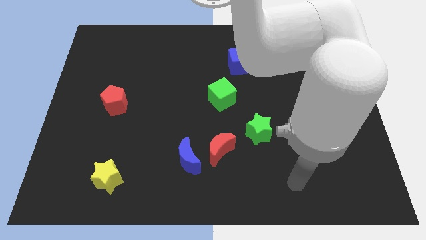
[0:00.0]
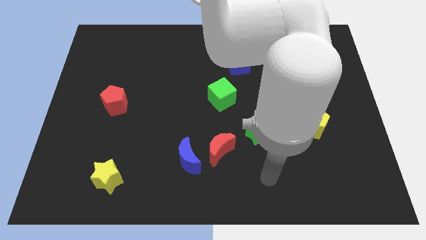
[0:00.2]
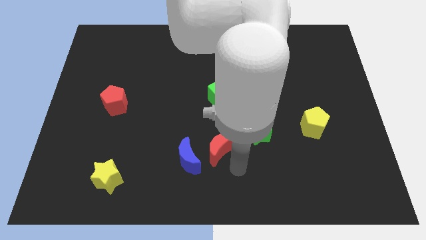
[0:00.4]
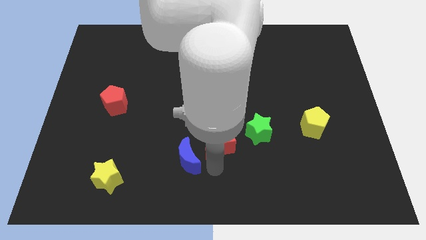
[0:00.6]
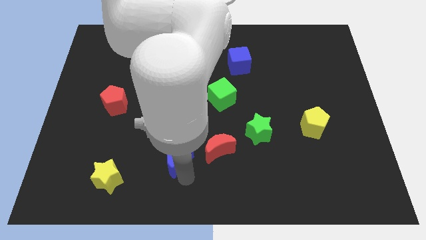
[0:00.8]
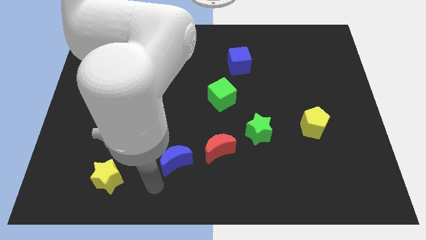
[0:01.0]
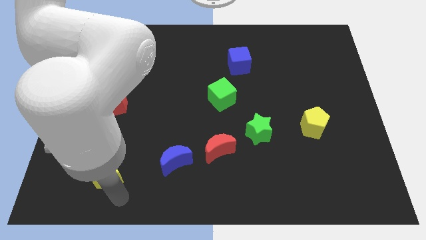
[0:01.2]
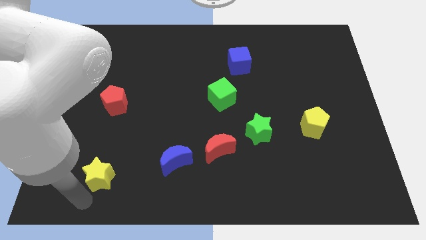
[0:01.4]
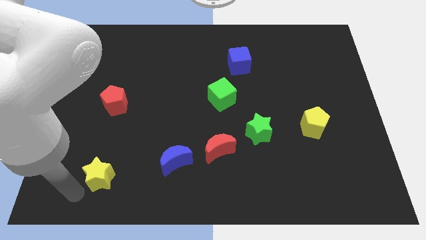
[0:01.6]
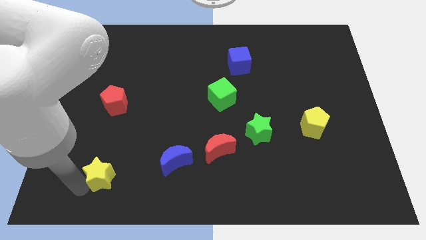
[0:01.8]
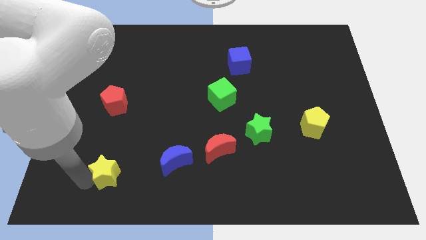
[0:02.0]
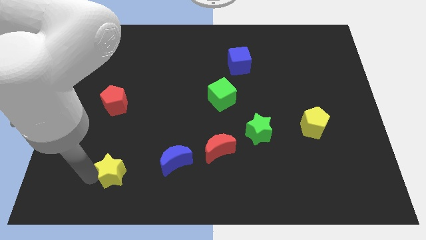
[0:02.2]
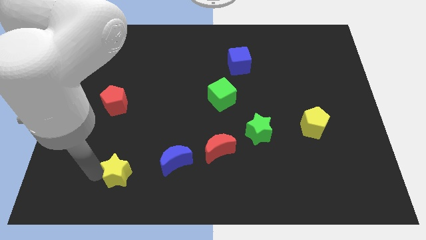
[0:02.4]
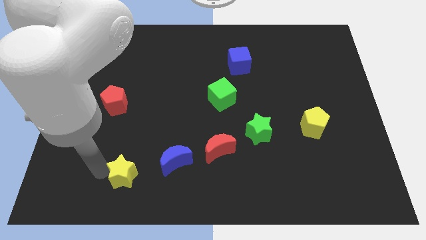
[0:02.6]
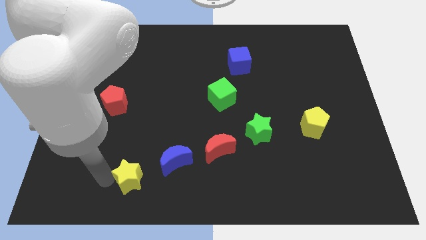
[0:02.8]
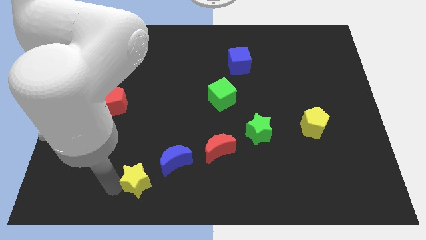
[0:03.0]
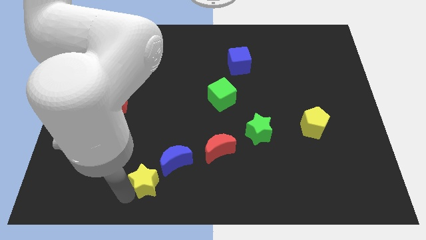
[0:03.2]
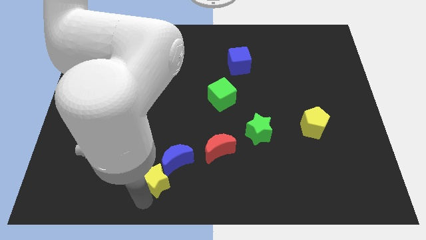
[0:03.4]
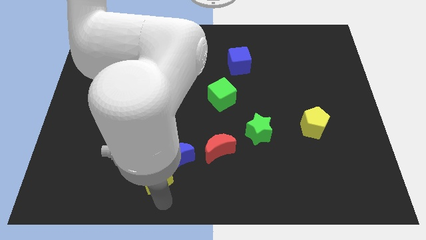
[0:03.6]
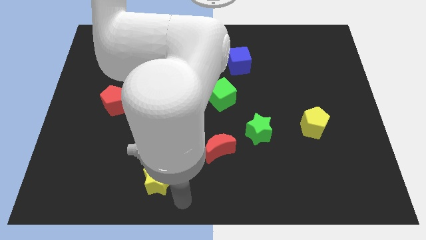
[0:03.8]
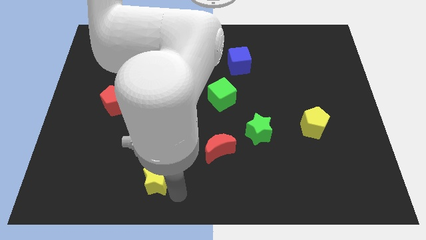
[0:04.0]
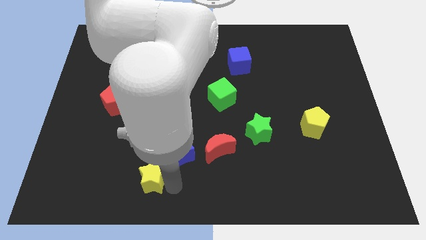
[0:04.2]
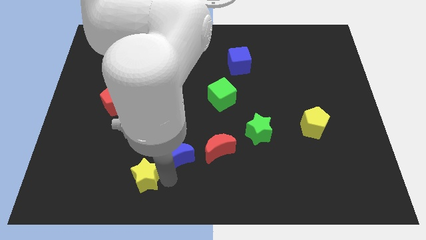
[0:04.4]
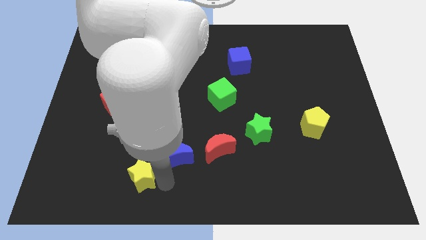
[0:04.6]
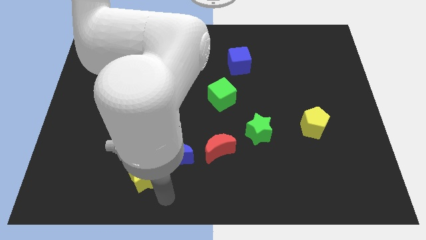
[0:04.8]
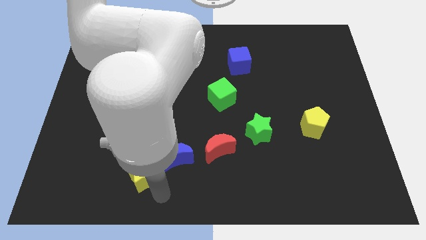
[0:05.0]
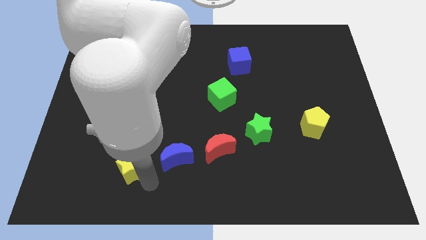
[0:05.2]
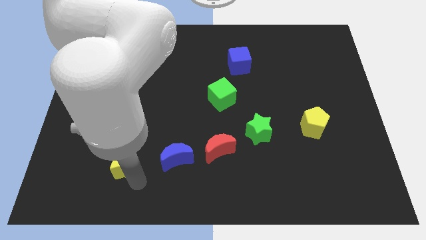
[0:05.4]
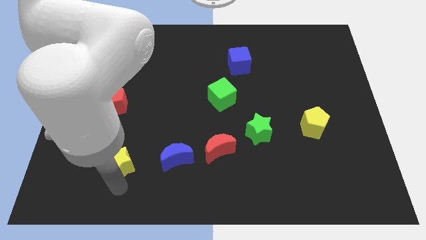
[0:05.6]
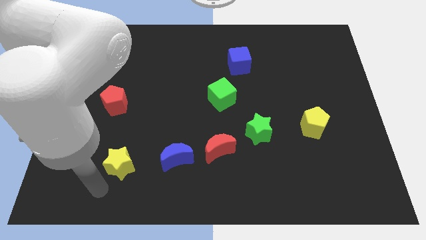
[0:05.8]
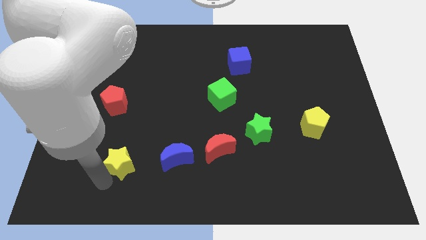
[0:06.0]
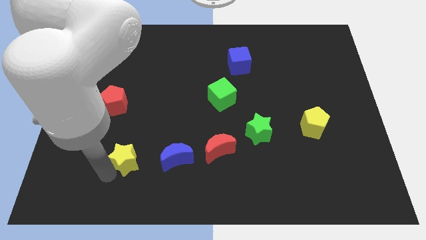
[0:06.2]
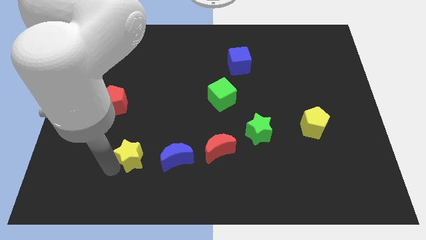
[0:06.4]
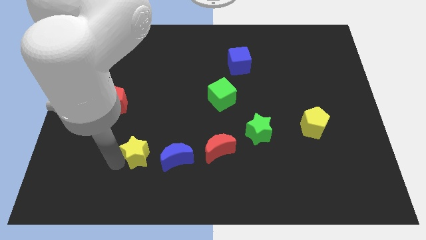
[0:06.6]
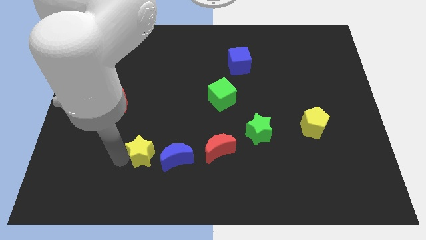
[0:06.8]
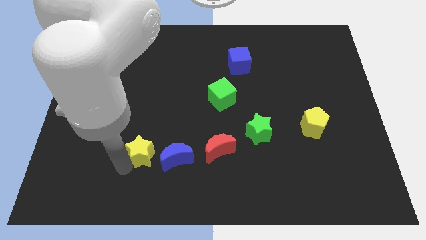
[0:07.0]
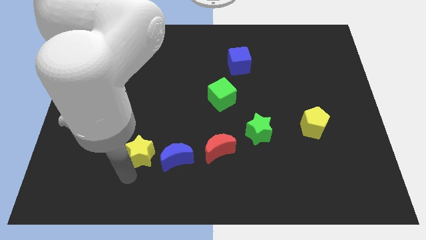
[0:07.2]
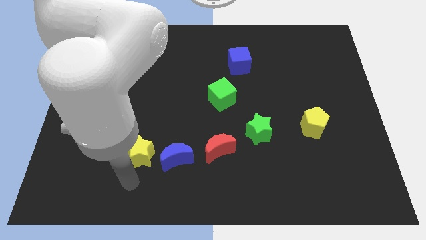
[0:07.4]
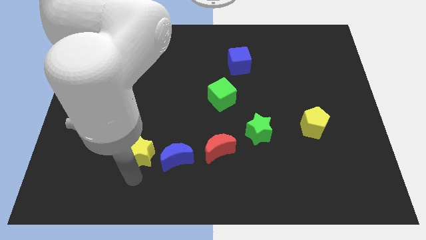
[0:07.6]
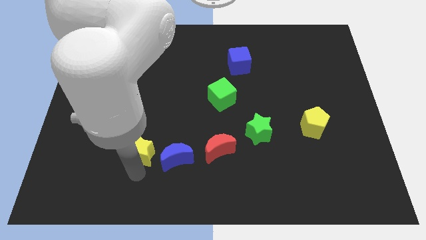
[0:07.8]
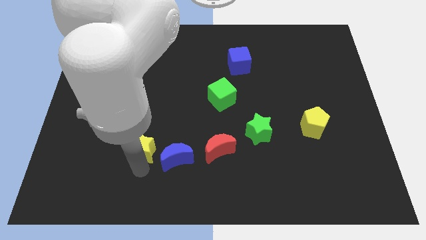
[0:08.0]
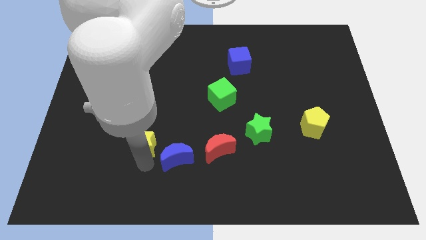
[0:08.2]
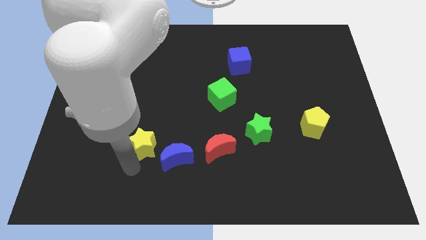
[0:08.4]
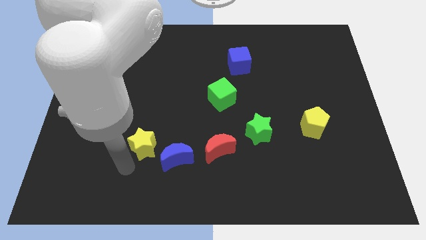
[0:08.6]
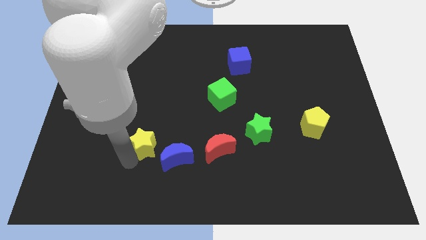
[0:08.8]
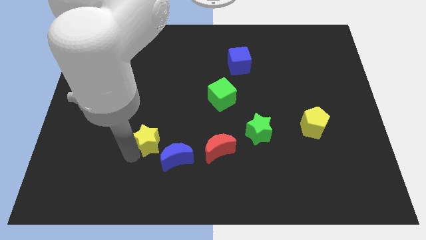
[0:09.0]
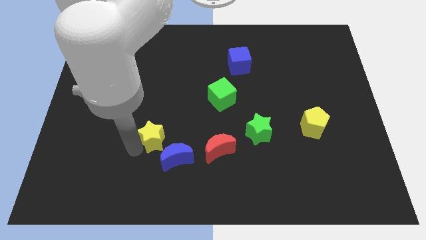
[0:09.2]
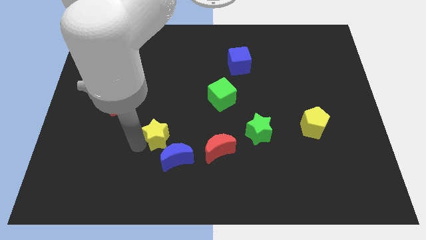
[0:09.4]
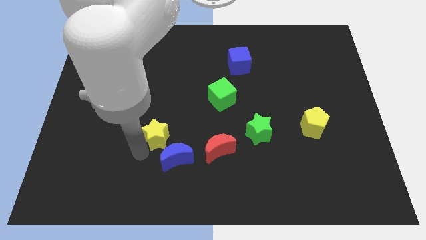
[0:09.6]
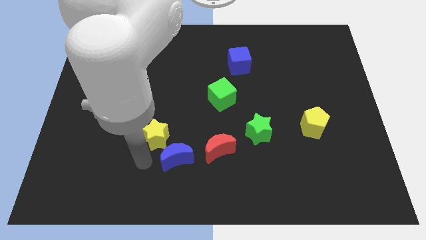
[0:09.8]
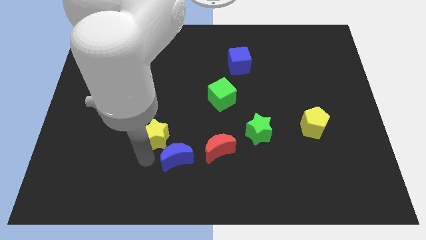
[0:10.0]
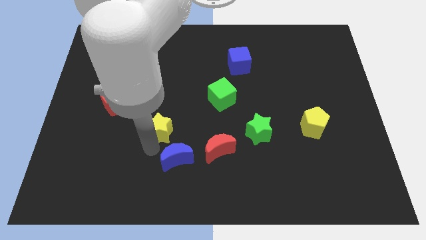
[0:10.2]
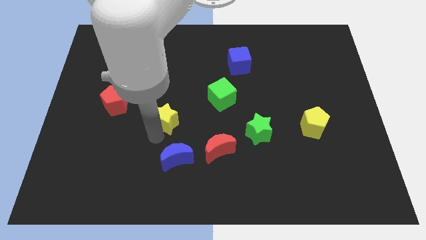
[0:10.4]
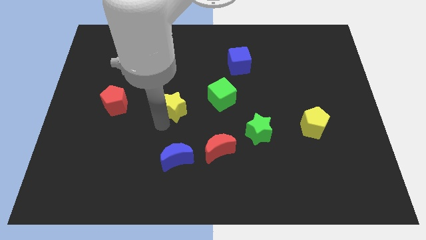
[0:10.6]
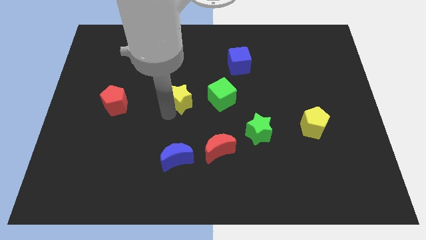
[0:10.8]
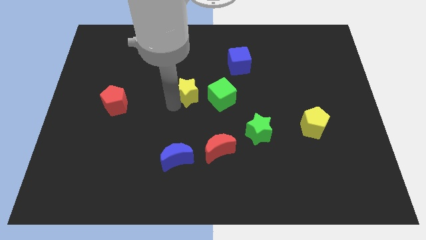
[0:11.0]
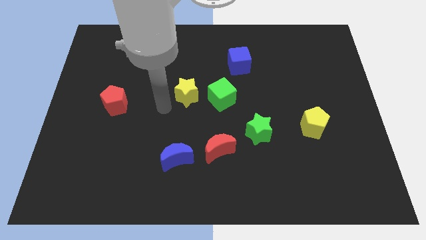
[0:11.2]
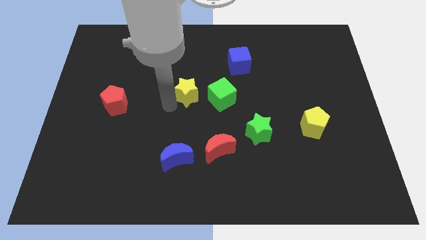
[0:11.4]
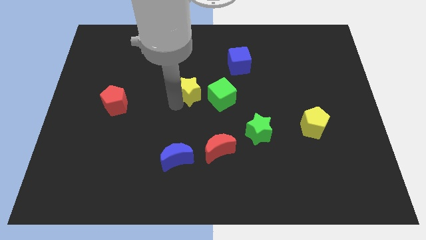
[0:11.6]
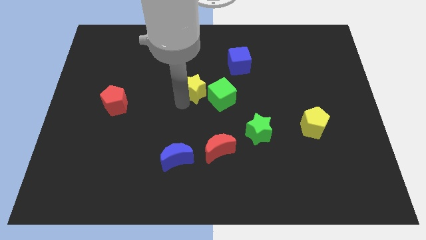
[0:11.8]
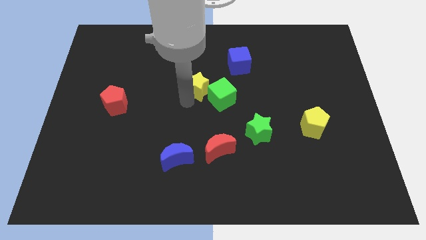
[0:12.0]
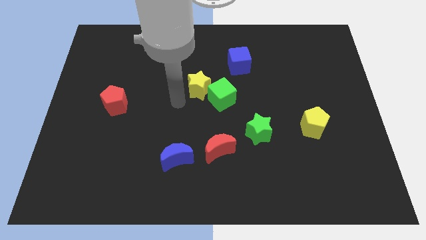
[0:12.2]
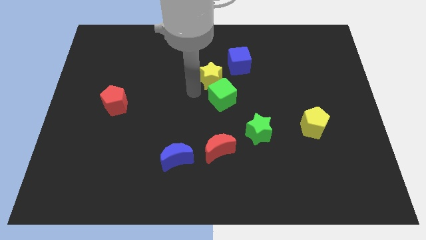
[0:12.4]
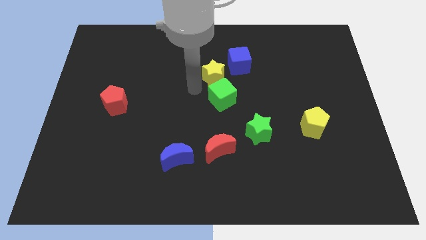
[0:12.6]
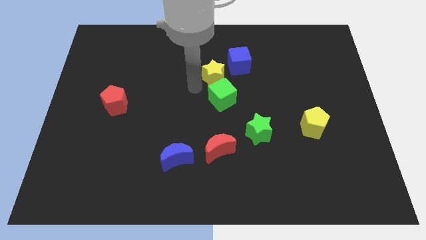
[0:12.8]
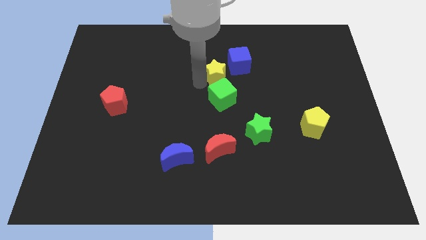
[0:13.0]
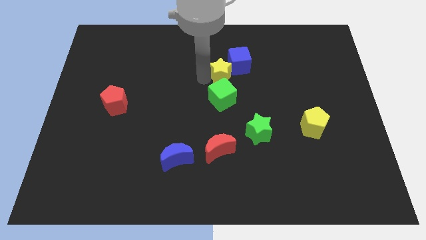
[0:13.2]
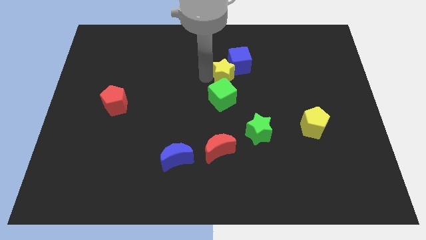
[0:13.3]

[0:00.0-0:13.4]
move the yellow star to the blue cube
